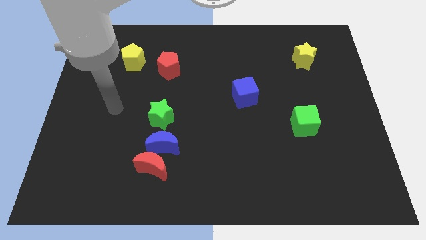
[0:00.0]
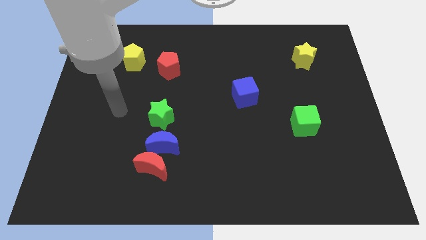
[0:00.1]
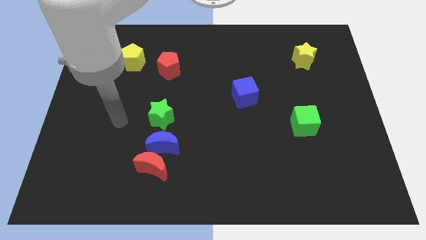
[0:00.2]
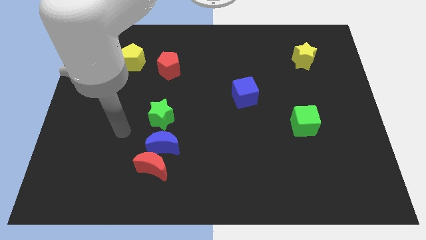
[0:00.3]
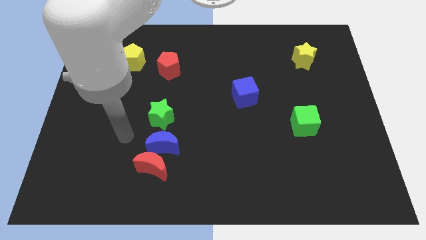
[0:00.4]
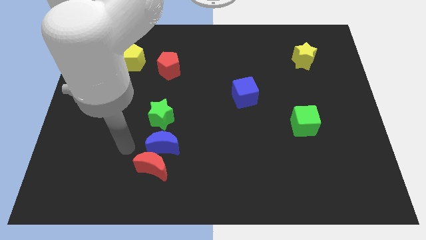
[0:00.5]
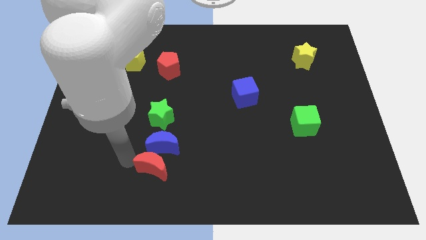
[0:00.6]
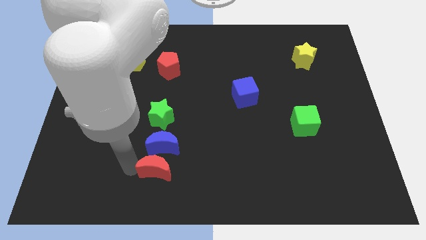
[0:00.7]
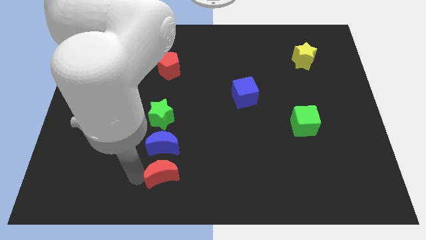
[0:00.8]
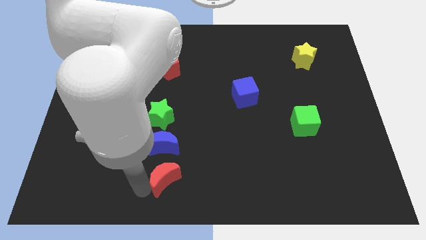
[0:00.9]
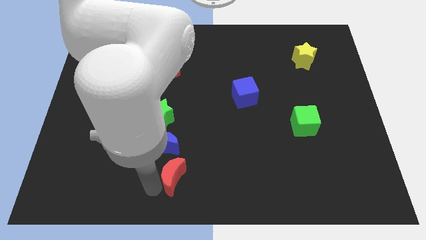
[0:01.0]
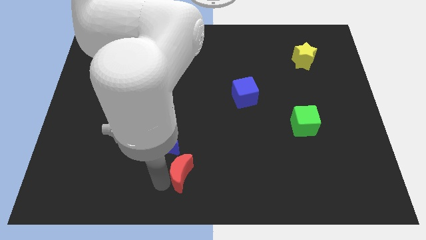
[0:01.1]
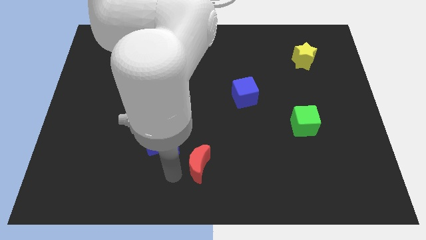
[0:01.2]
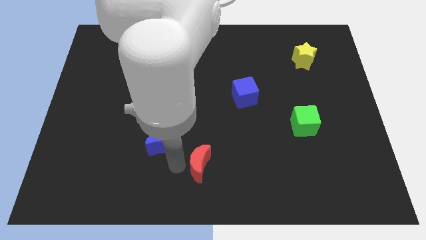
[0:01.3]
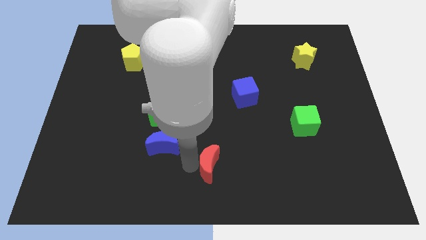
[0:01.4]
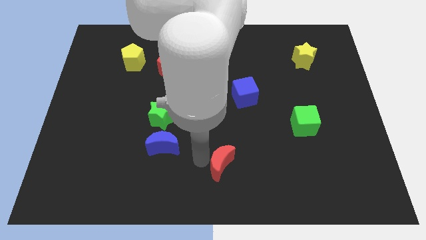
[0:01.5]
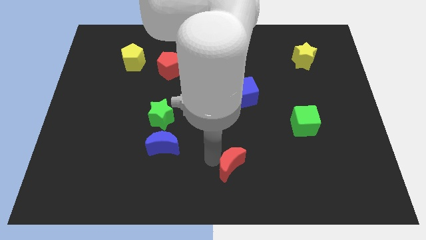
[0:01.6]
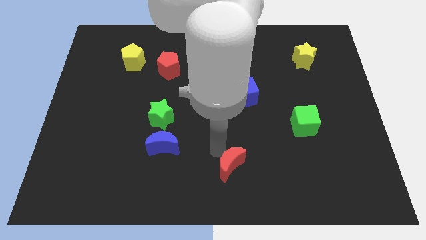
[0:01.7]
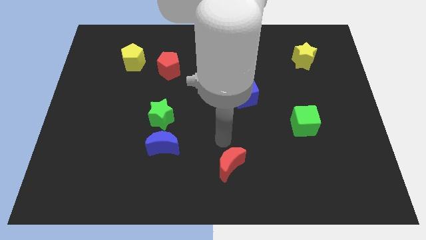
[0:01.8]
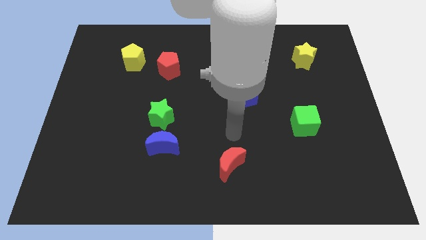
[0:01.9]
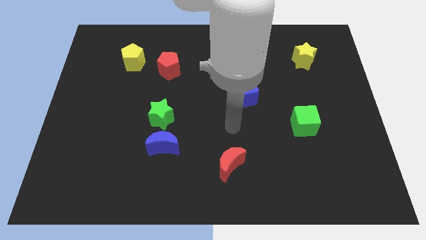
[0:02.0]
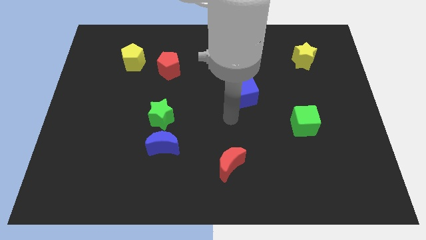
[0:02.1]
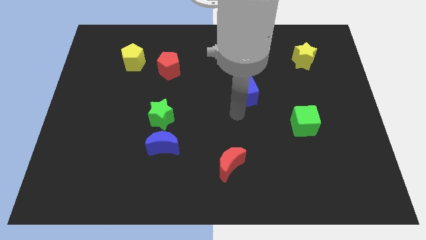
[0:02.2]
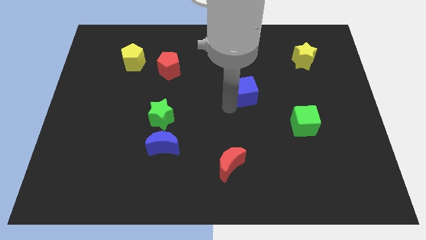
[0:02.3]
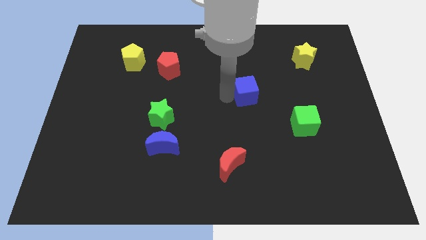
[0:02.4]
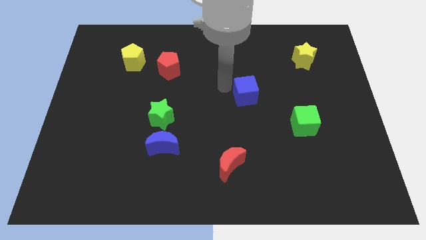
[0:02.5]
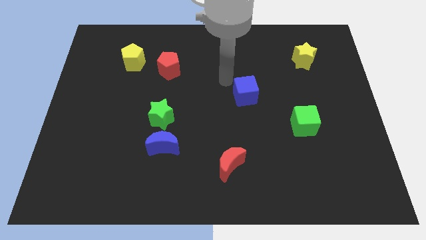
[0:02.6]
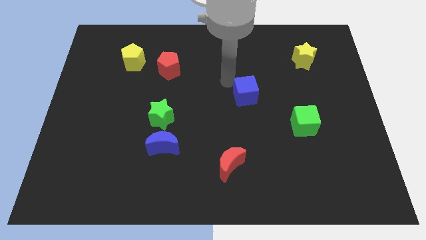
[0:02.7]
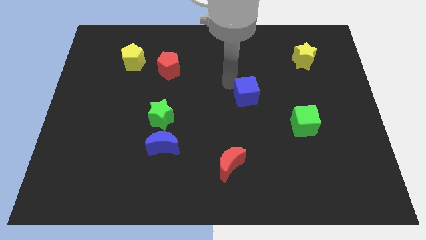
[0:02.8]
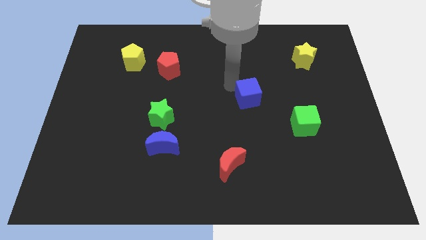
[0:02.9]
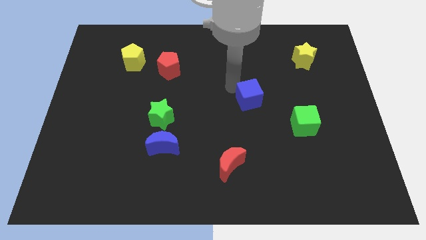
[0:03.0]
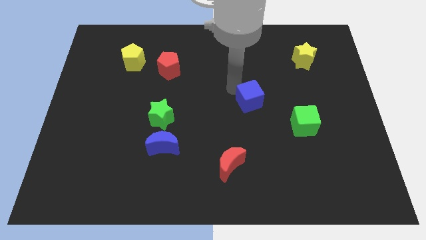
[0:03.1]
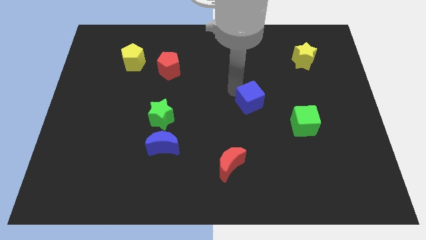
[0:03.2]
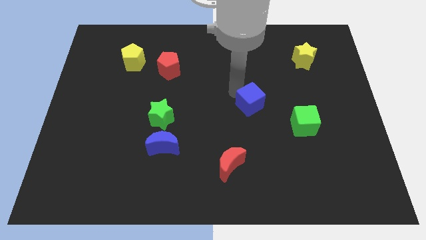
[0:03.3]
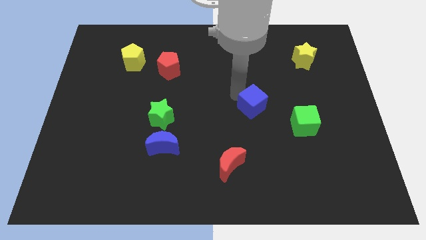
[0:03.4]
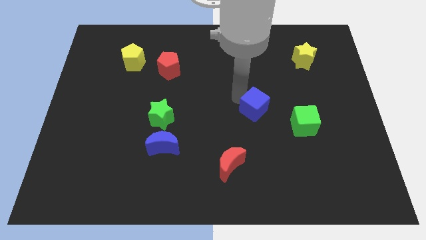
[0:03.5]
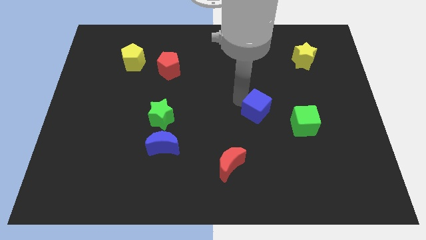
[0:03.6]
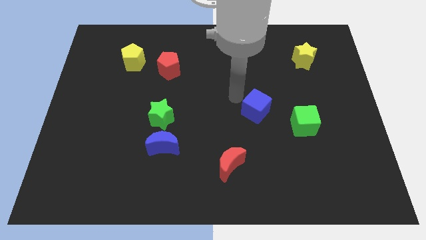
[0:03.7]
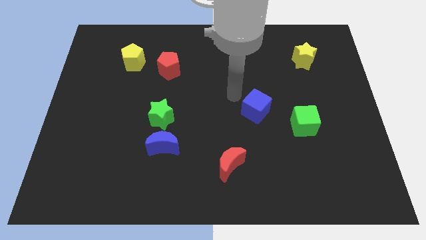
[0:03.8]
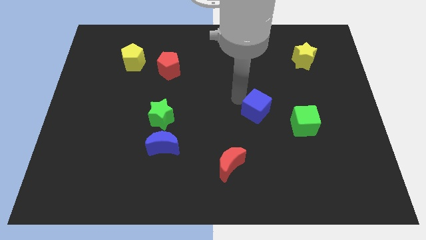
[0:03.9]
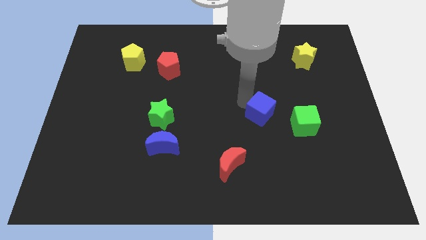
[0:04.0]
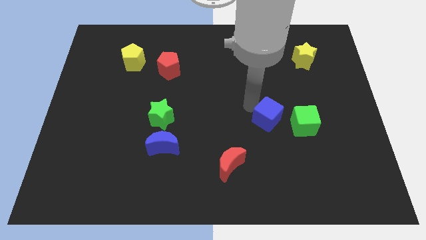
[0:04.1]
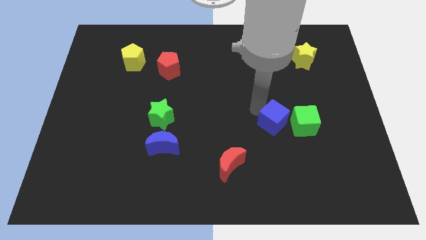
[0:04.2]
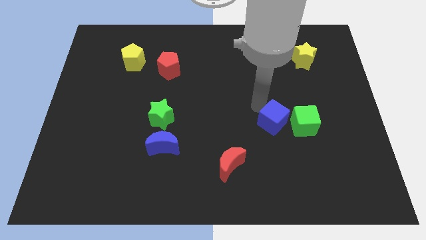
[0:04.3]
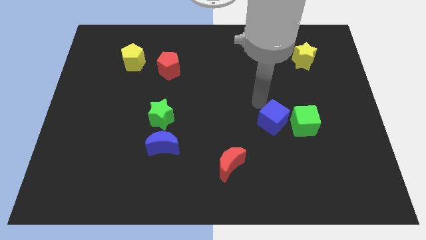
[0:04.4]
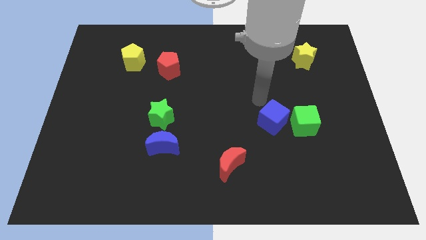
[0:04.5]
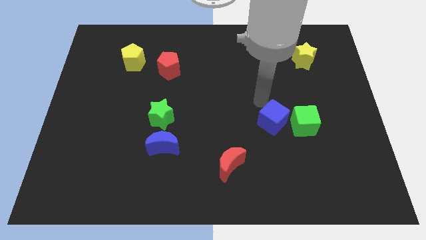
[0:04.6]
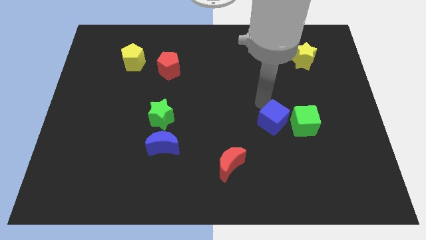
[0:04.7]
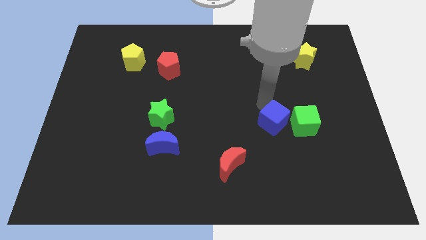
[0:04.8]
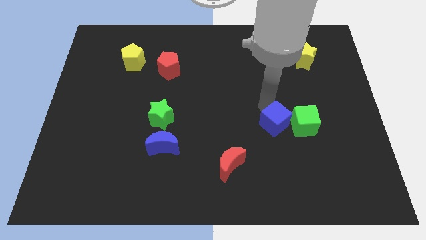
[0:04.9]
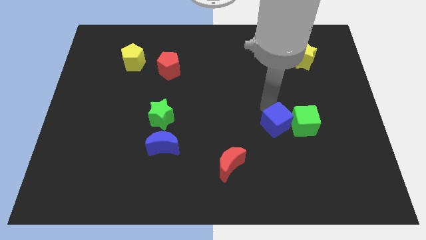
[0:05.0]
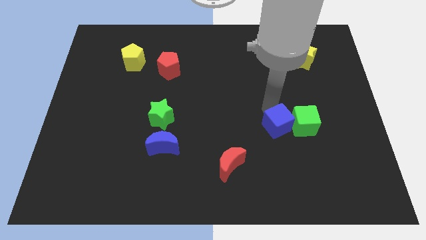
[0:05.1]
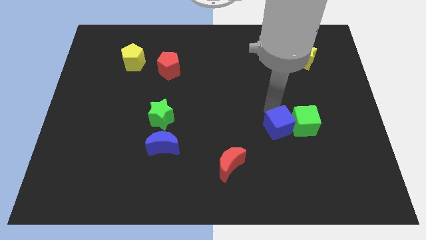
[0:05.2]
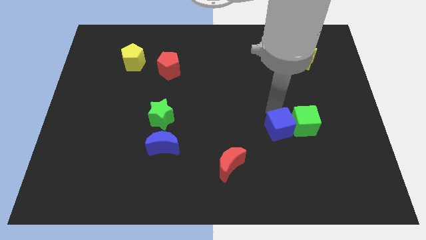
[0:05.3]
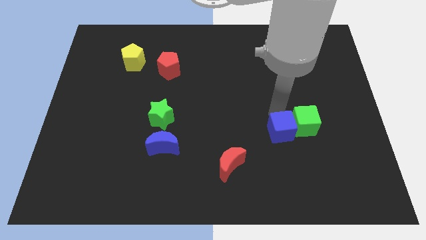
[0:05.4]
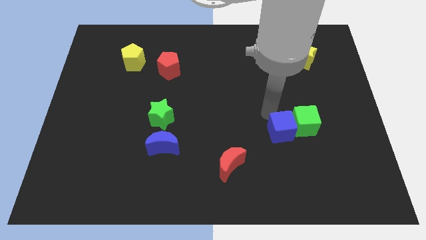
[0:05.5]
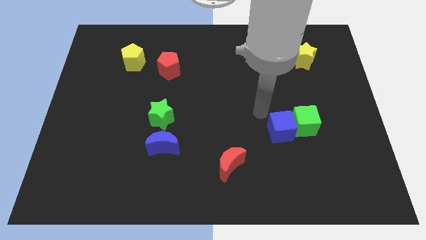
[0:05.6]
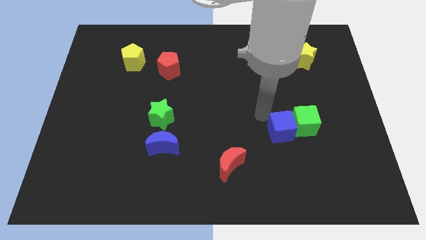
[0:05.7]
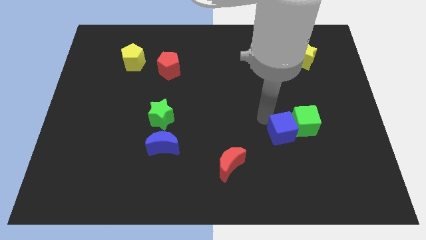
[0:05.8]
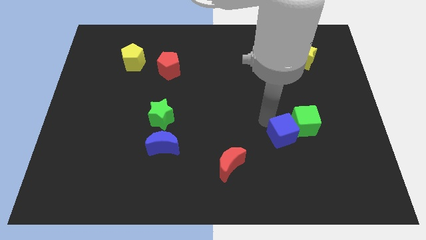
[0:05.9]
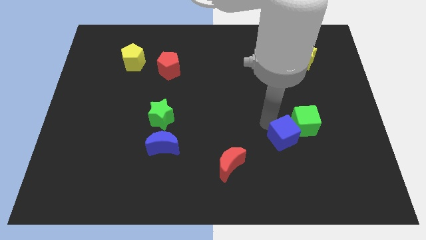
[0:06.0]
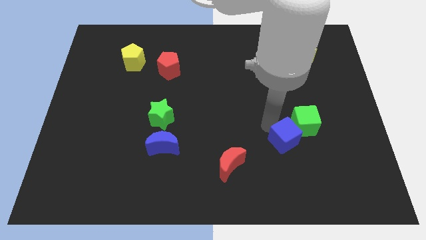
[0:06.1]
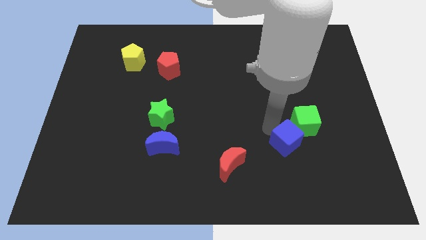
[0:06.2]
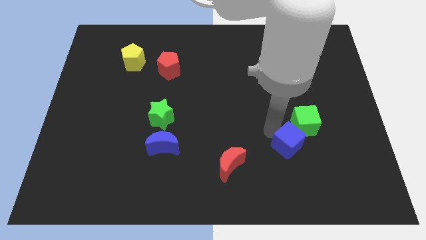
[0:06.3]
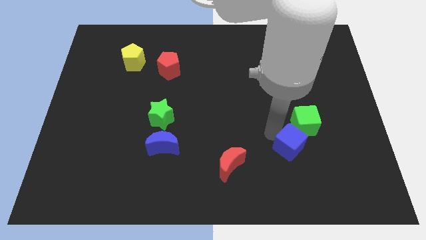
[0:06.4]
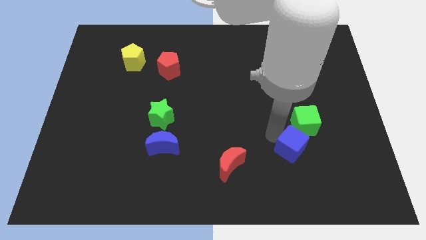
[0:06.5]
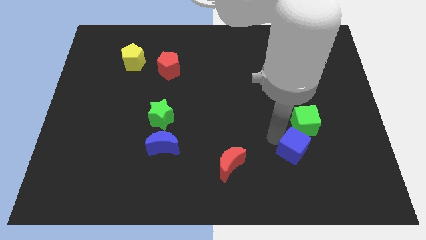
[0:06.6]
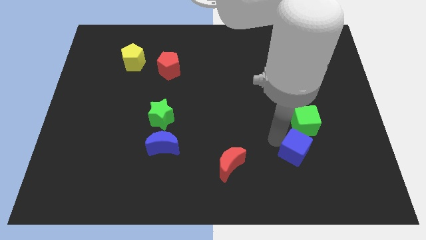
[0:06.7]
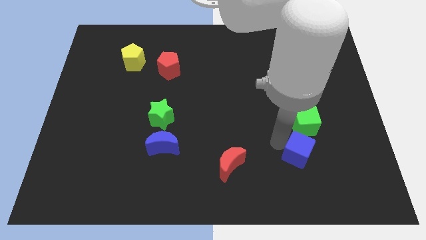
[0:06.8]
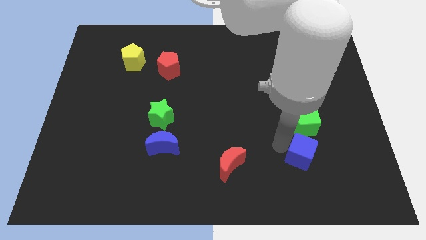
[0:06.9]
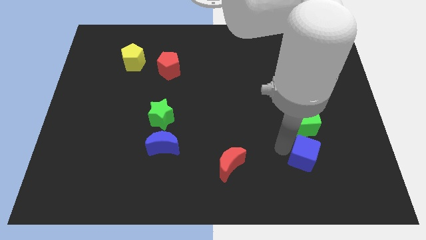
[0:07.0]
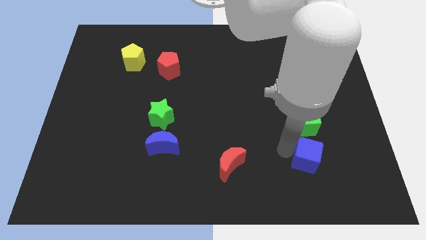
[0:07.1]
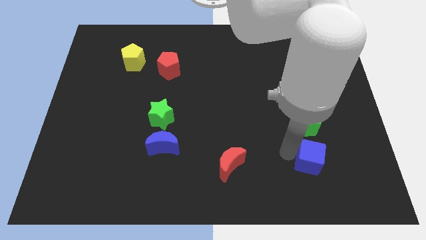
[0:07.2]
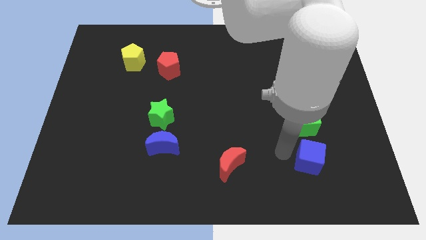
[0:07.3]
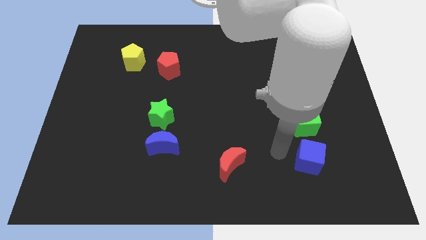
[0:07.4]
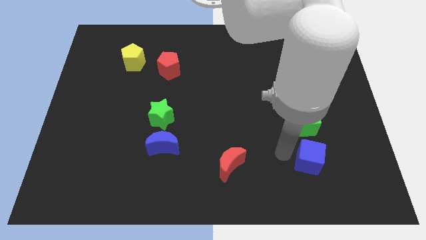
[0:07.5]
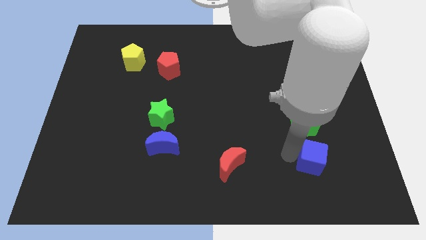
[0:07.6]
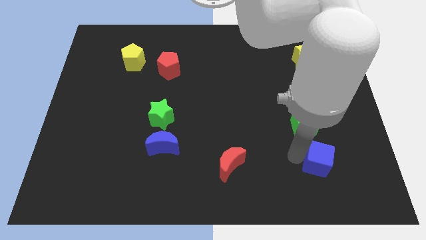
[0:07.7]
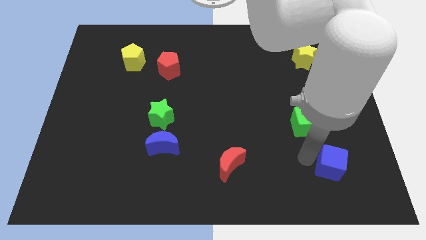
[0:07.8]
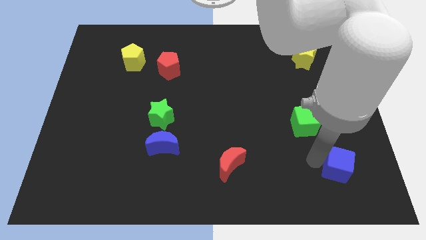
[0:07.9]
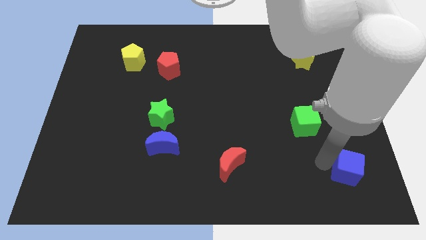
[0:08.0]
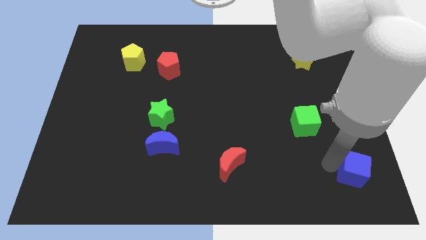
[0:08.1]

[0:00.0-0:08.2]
put the blue cube to the bottom right
